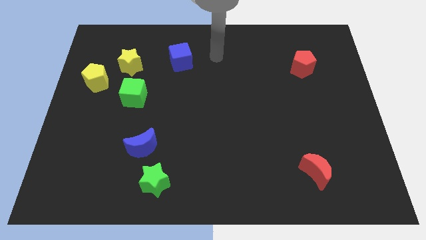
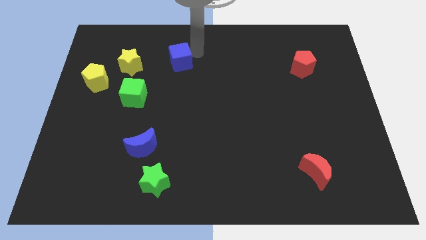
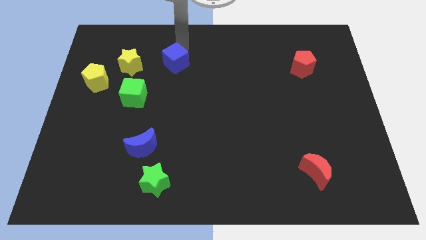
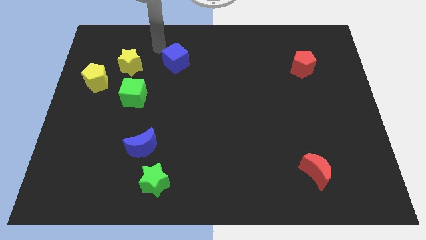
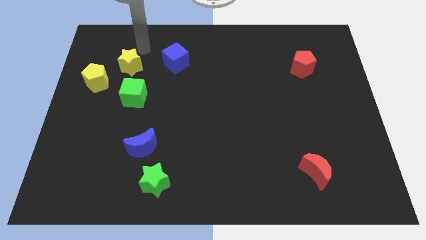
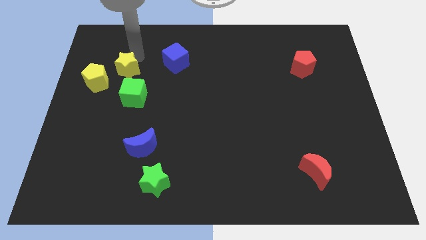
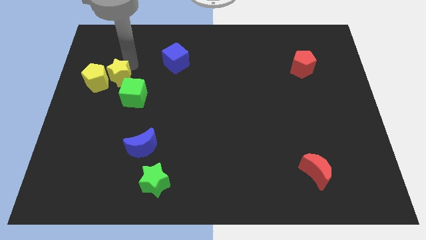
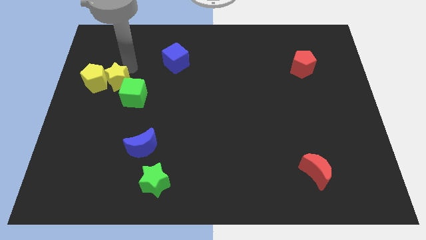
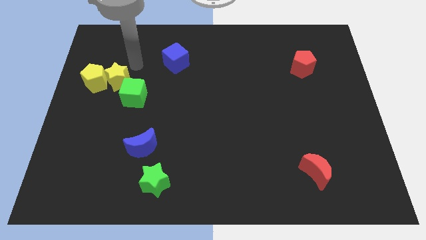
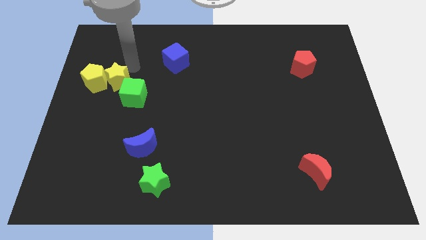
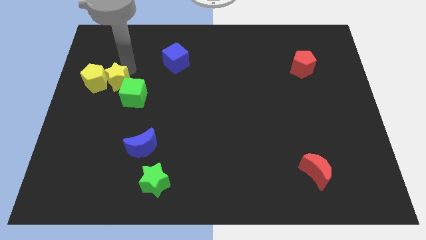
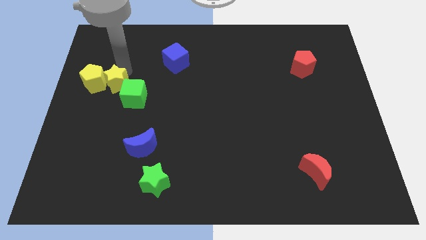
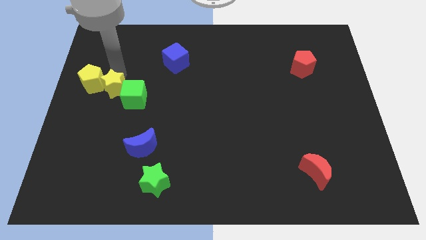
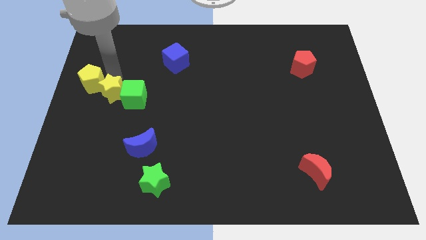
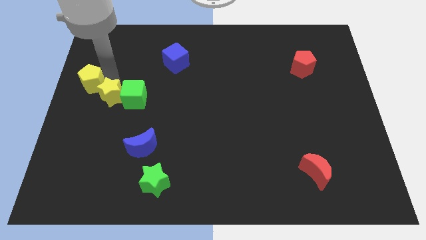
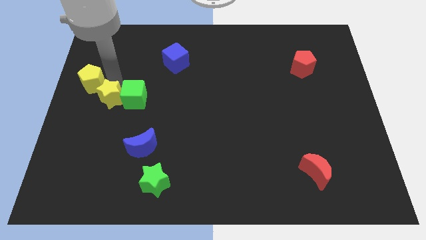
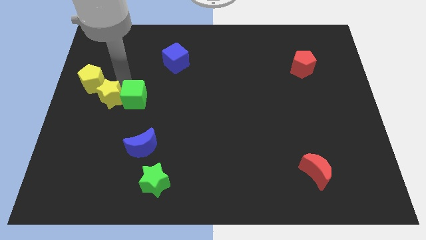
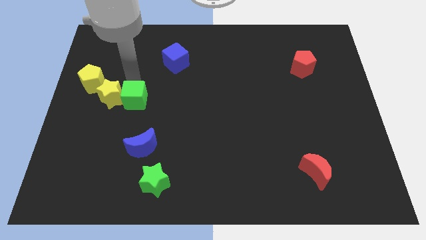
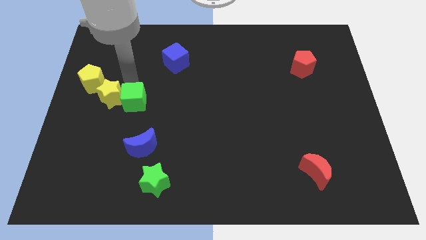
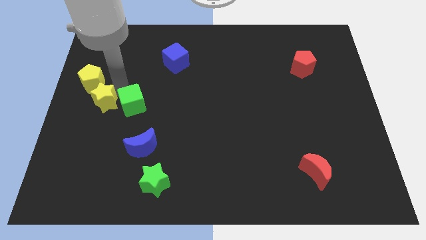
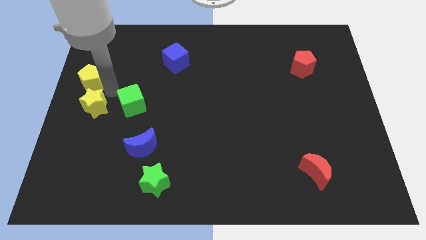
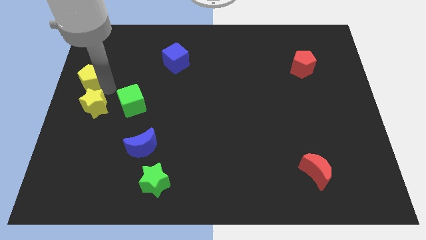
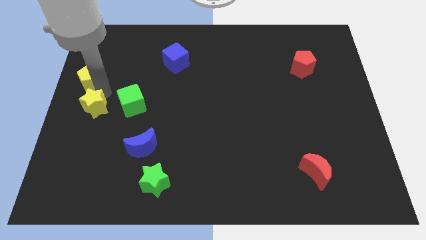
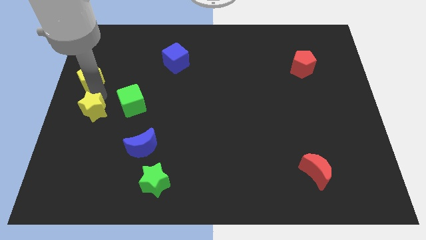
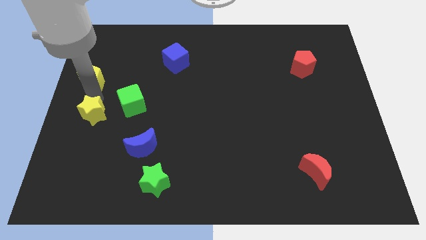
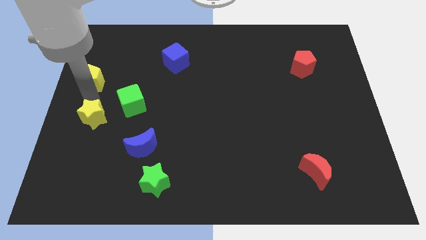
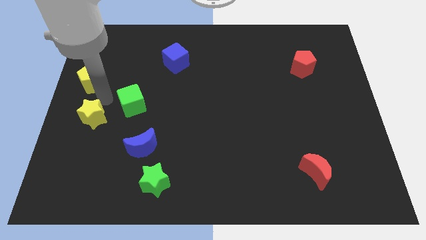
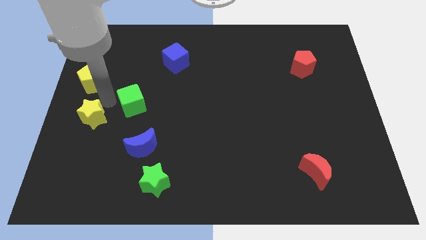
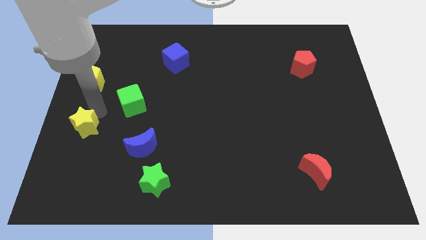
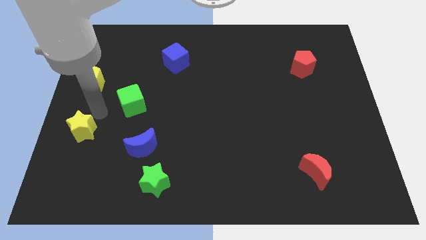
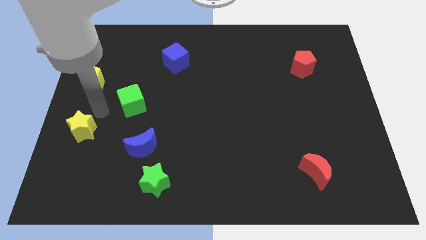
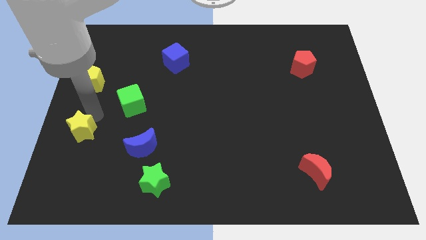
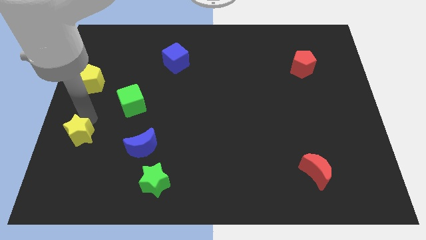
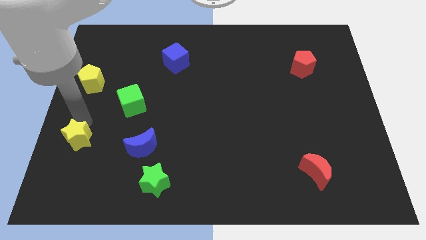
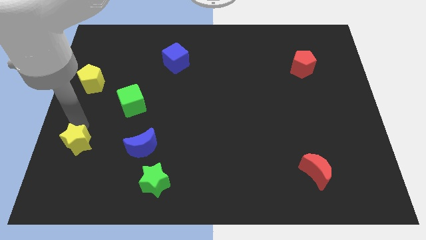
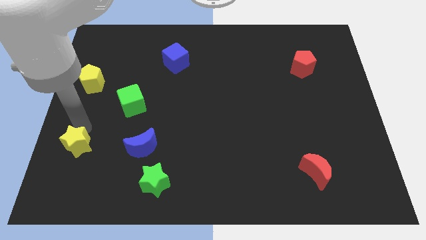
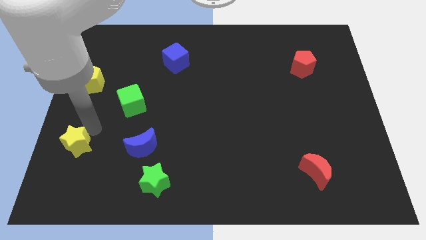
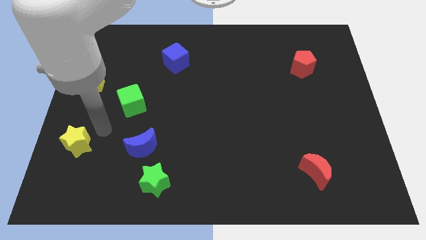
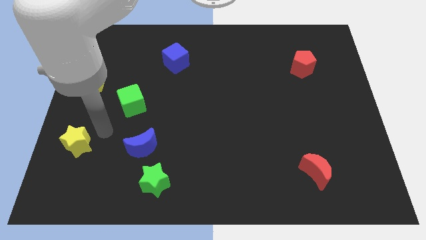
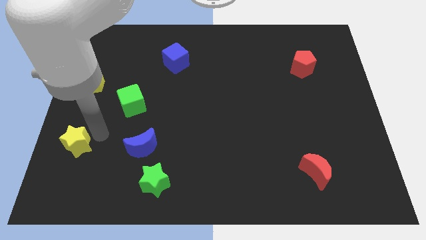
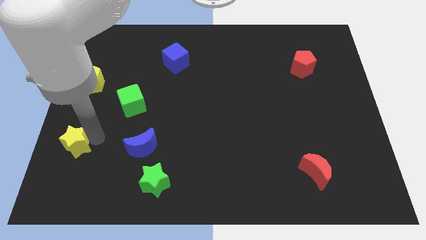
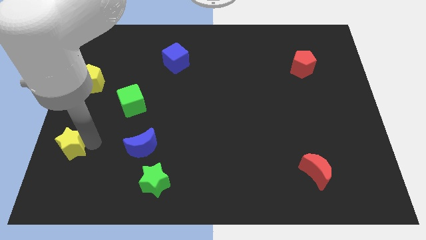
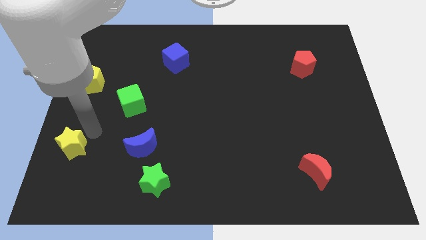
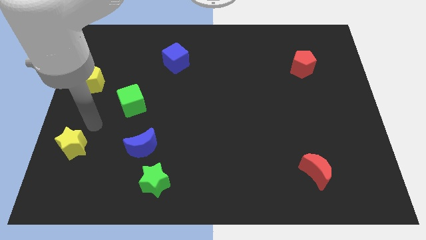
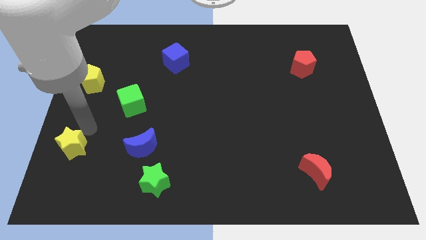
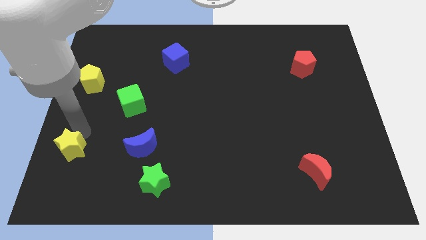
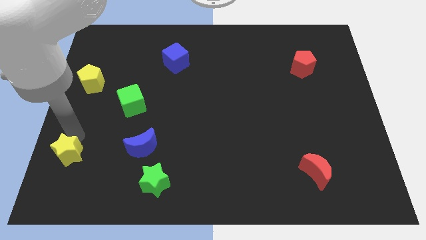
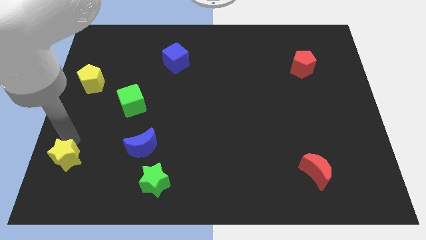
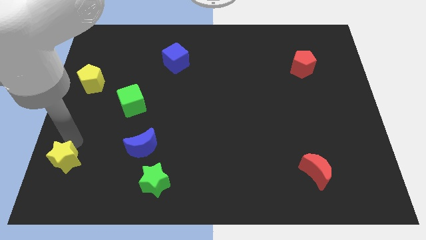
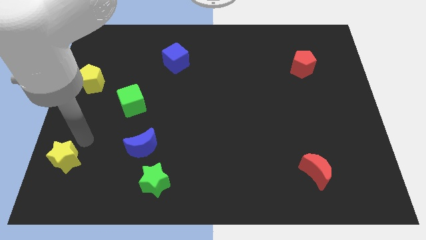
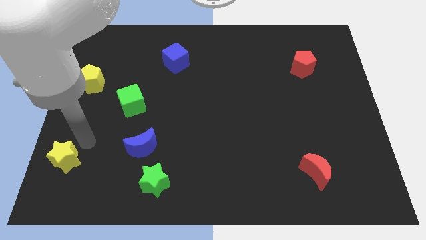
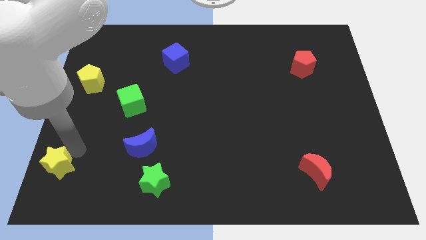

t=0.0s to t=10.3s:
push the yellow star to the bottom left corner

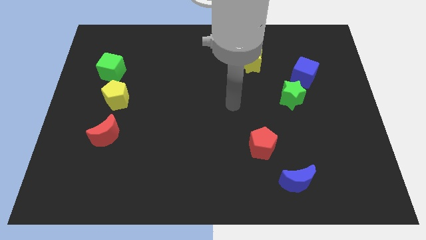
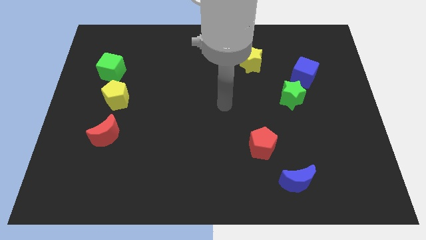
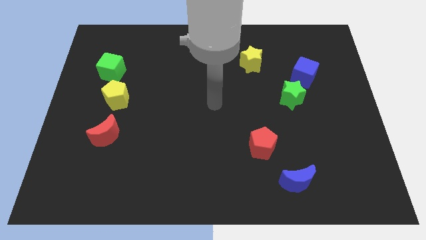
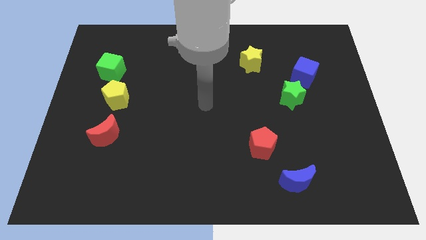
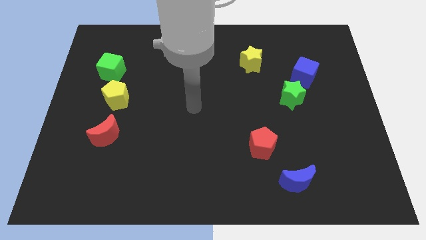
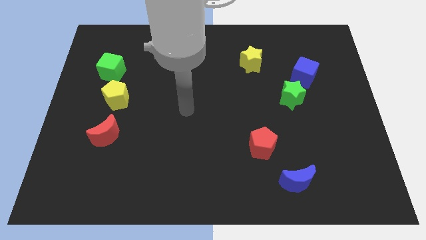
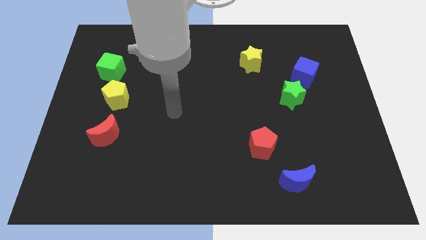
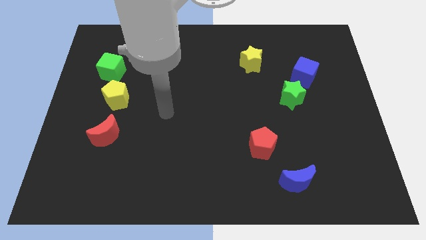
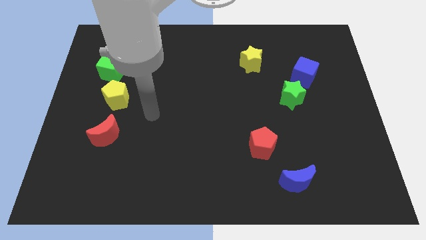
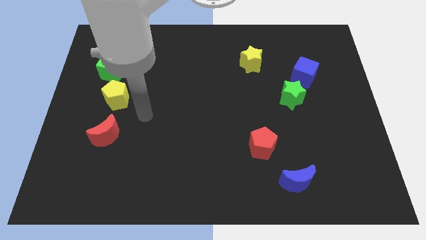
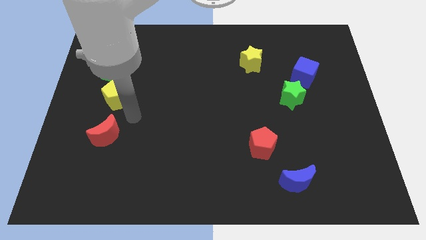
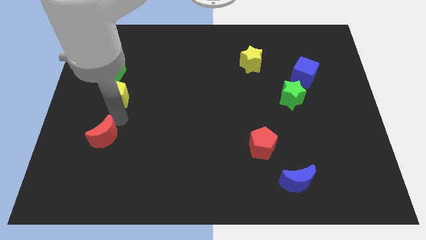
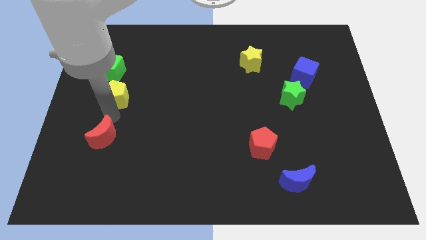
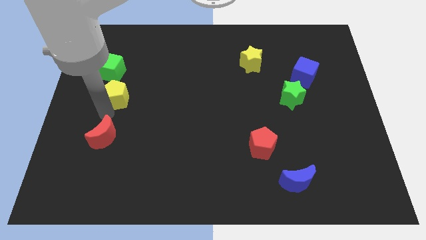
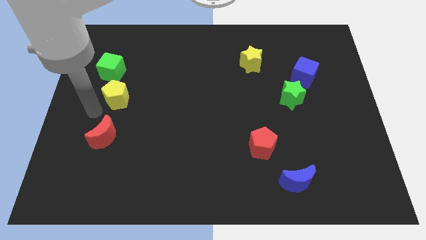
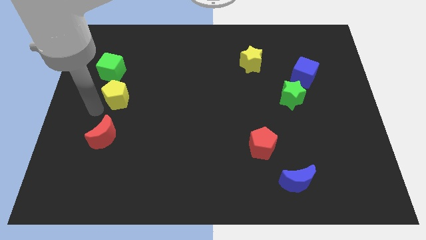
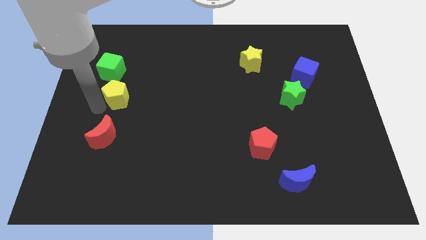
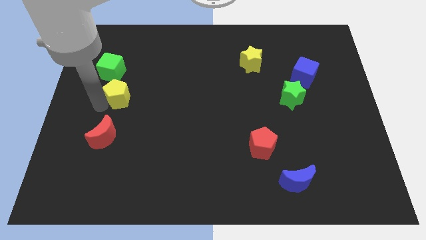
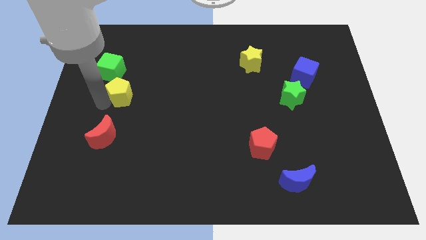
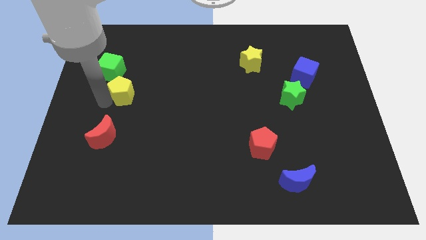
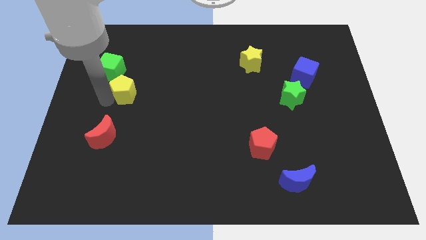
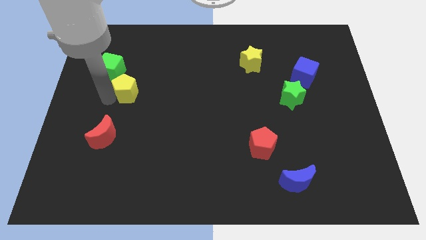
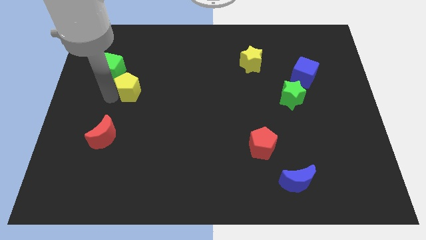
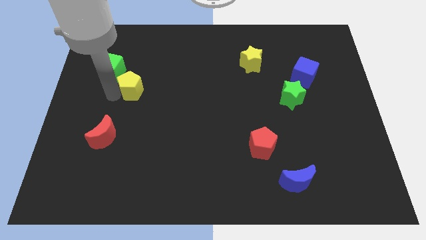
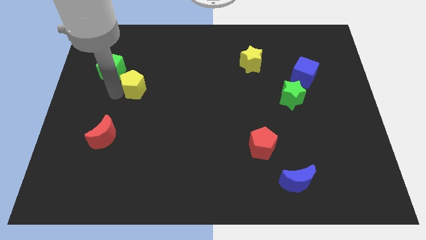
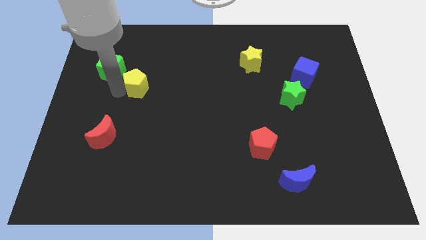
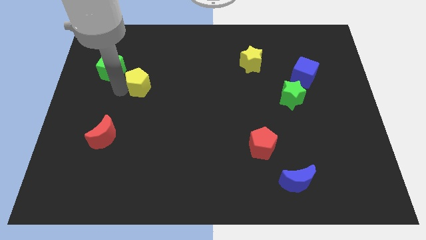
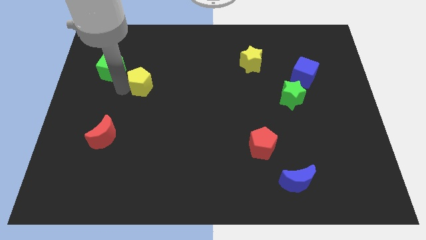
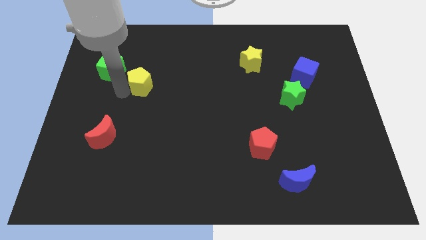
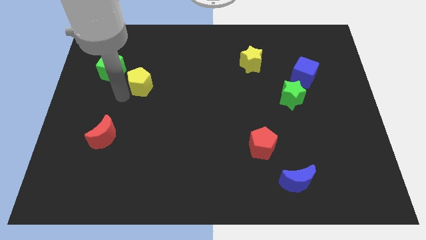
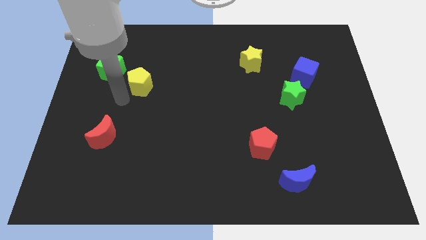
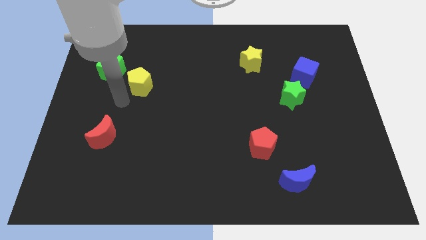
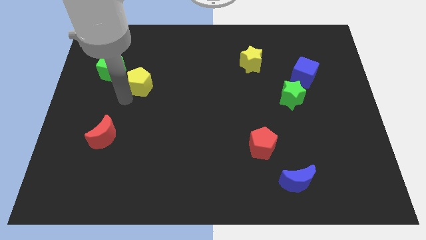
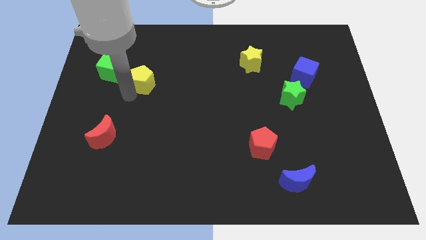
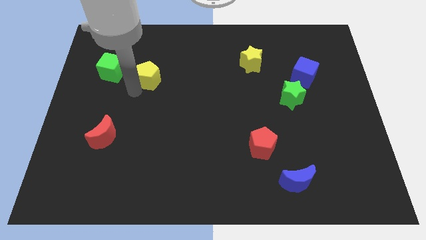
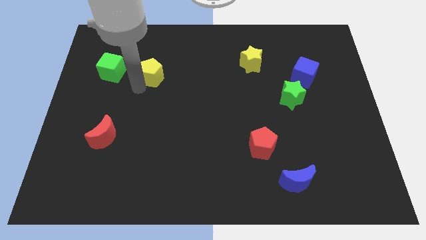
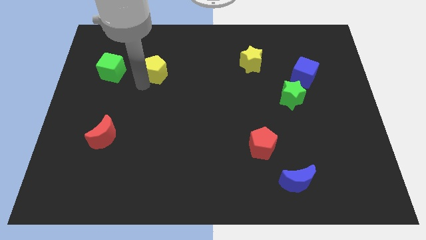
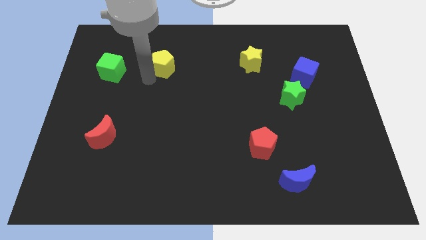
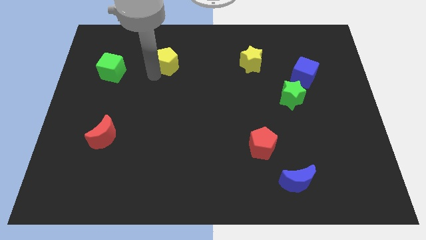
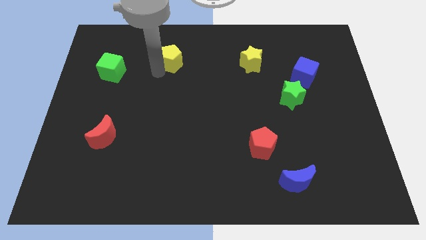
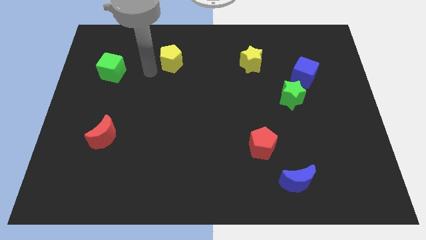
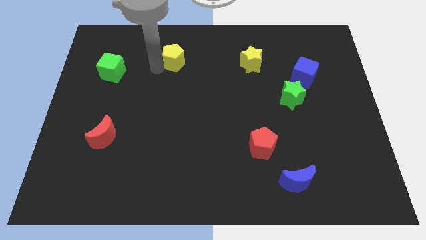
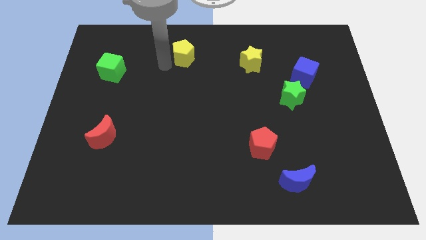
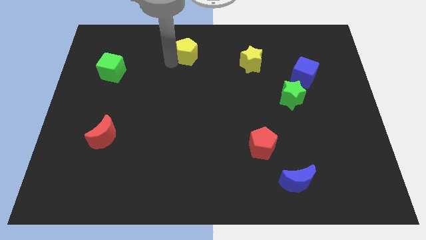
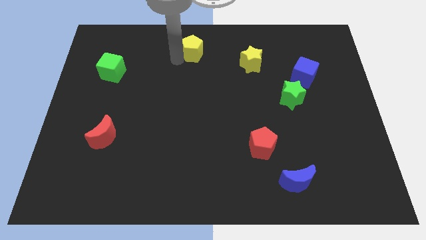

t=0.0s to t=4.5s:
push the yellow pentagon to the top side
